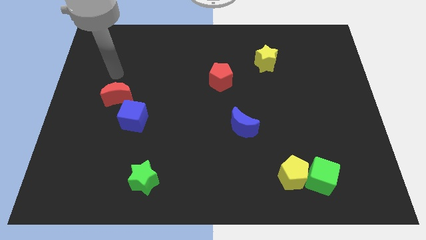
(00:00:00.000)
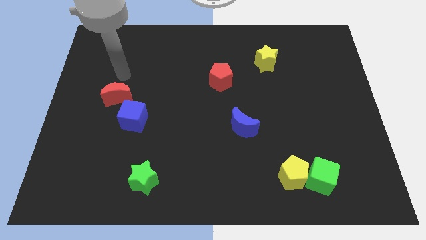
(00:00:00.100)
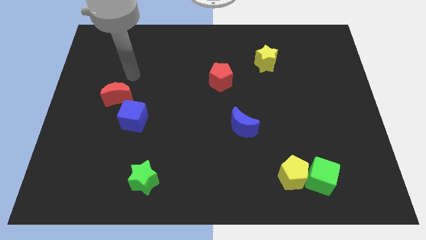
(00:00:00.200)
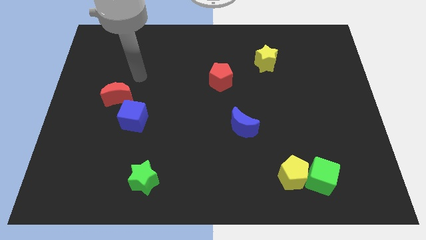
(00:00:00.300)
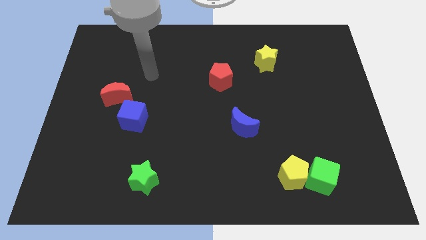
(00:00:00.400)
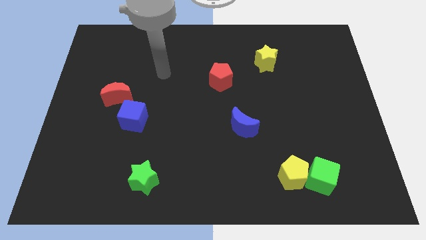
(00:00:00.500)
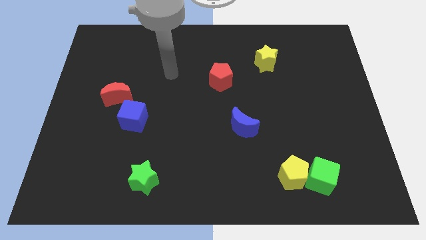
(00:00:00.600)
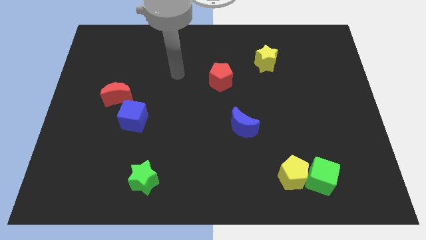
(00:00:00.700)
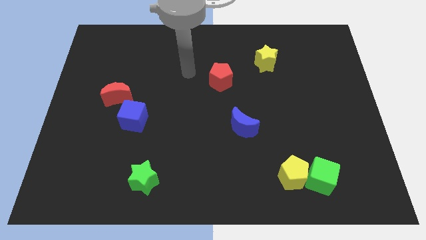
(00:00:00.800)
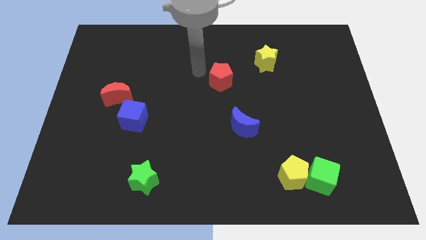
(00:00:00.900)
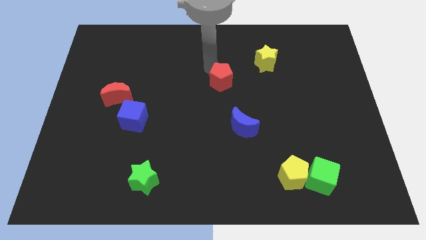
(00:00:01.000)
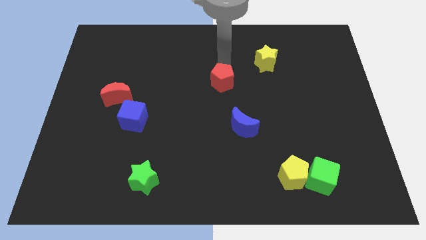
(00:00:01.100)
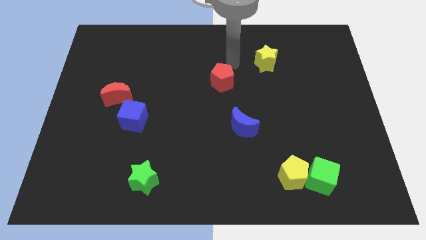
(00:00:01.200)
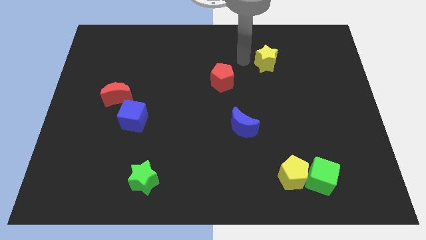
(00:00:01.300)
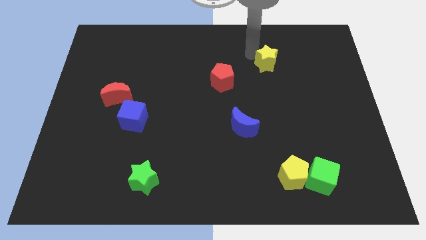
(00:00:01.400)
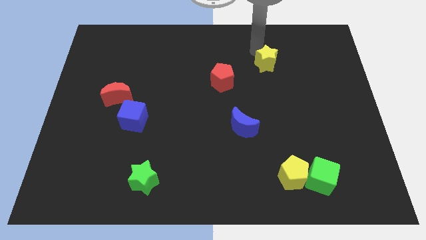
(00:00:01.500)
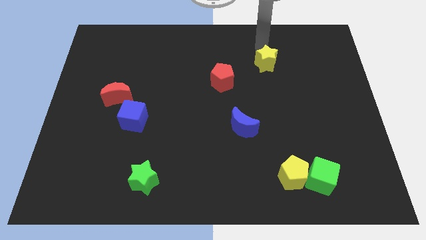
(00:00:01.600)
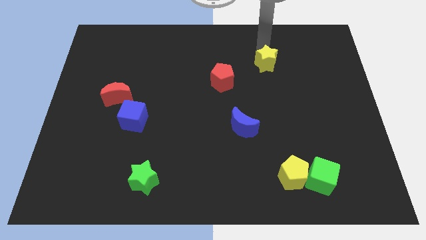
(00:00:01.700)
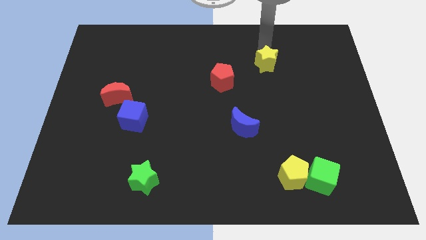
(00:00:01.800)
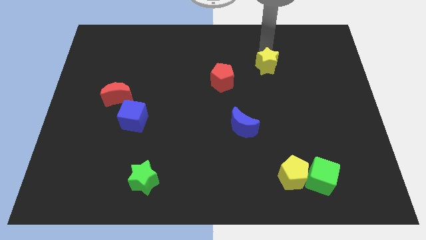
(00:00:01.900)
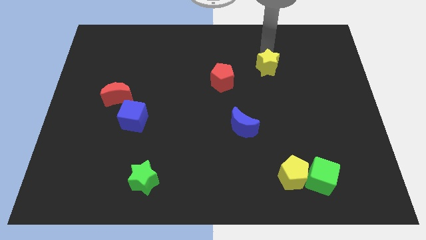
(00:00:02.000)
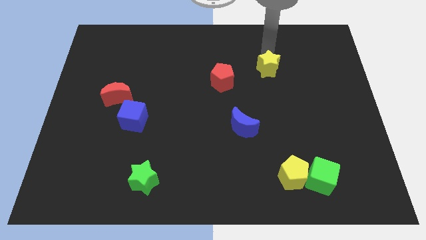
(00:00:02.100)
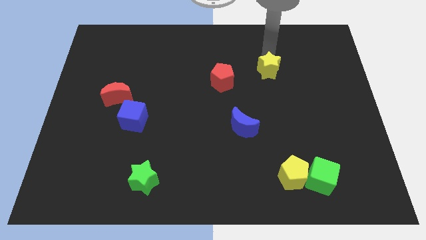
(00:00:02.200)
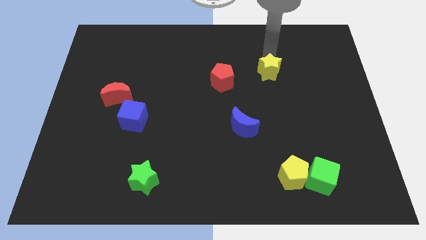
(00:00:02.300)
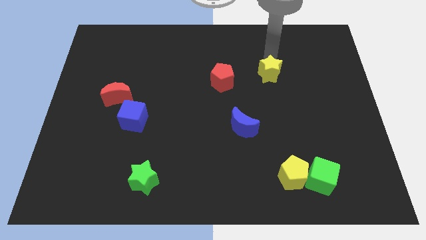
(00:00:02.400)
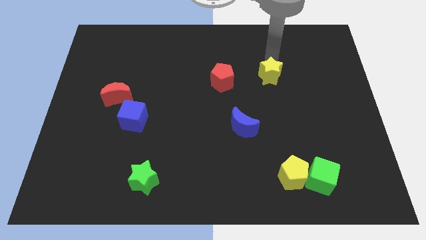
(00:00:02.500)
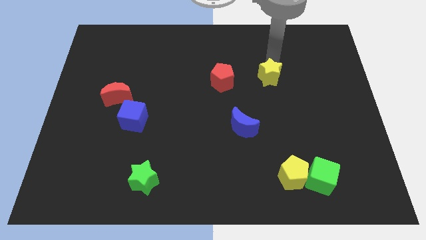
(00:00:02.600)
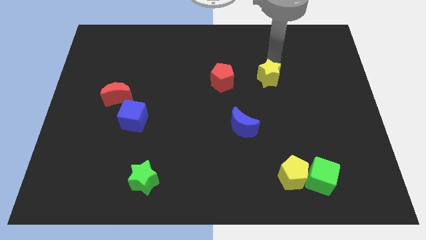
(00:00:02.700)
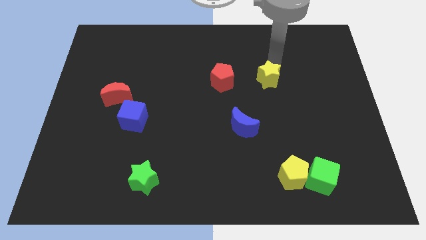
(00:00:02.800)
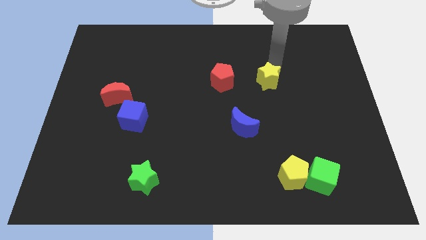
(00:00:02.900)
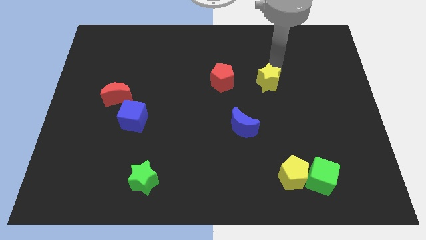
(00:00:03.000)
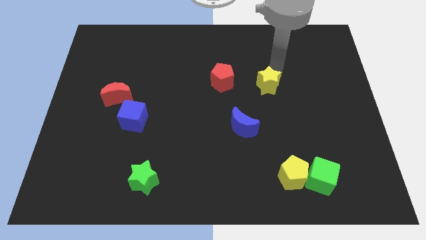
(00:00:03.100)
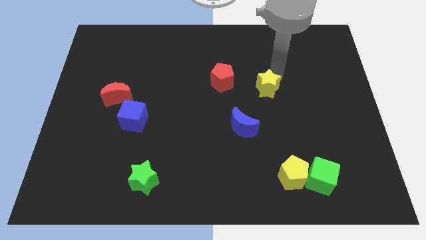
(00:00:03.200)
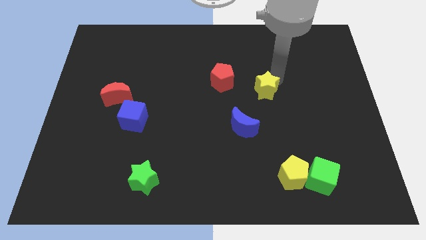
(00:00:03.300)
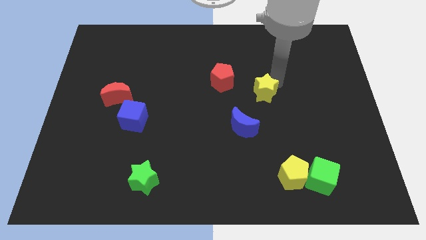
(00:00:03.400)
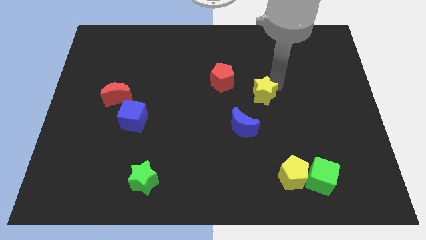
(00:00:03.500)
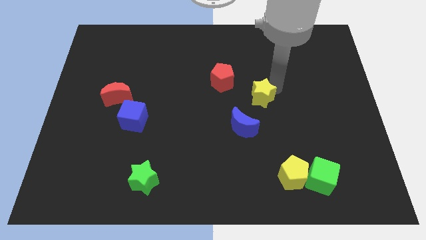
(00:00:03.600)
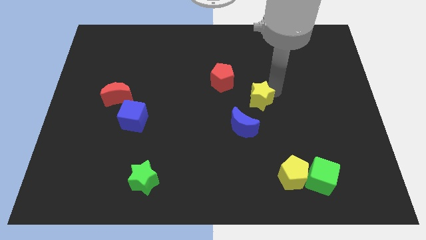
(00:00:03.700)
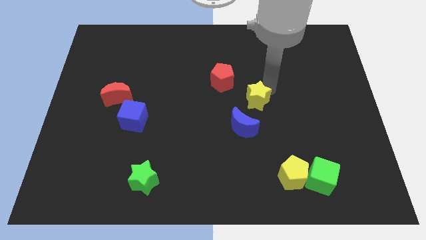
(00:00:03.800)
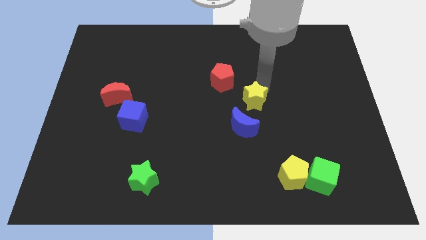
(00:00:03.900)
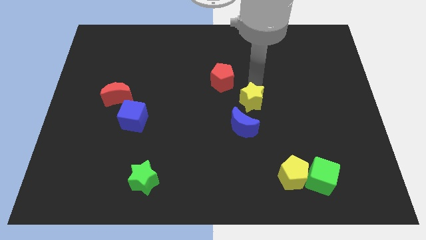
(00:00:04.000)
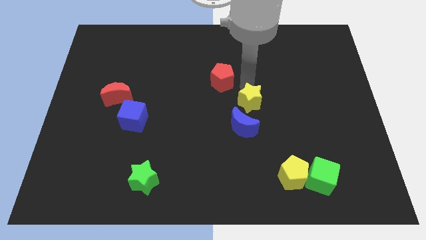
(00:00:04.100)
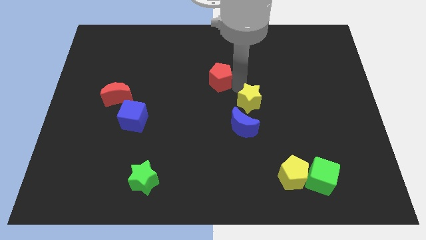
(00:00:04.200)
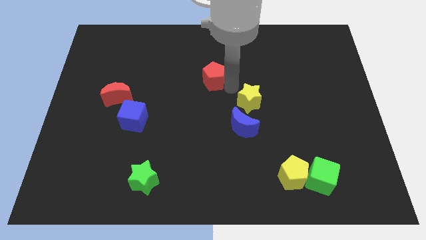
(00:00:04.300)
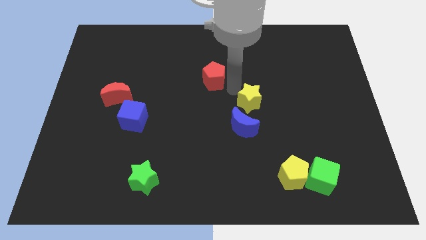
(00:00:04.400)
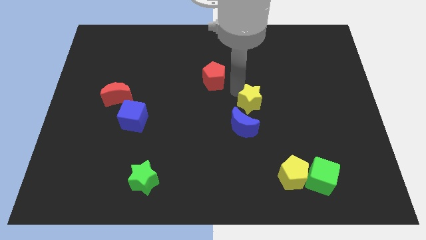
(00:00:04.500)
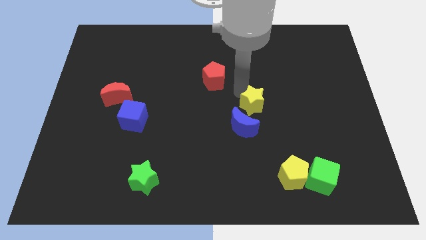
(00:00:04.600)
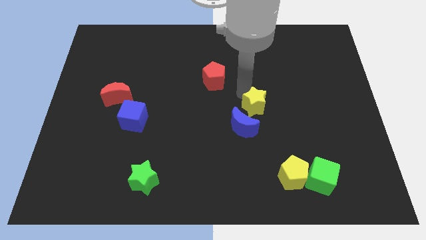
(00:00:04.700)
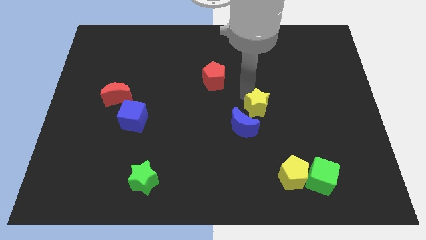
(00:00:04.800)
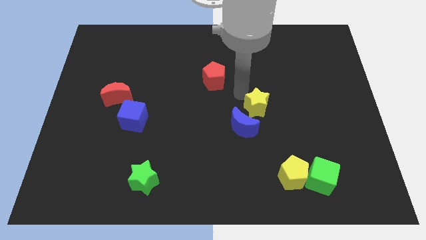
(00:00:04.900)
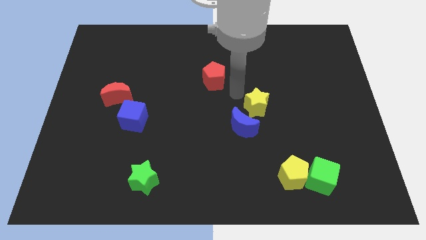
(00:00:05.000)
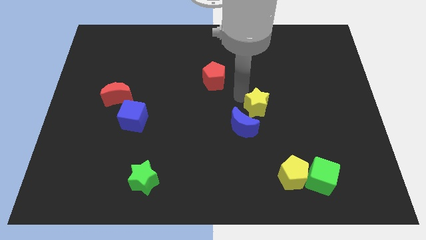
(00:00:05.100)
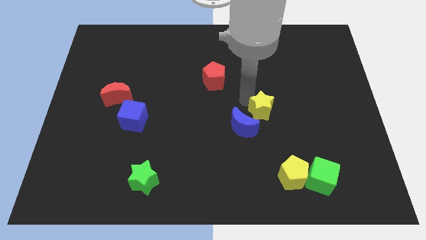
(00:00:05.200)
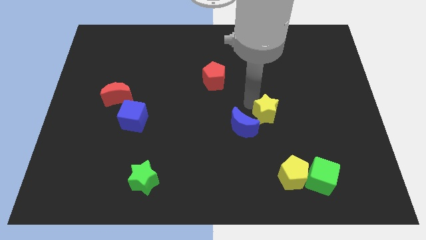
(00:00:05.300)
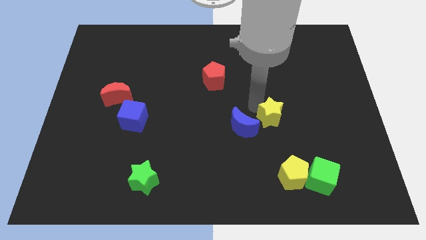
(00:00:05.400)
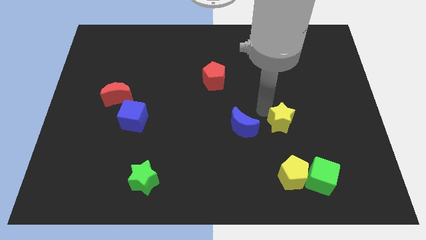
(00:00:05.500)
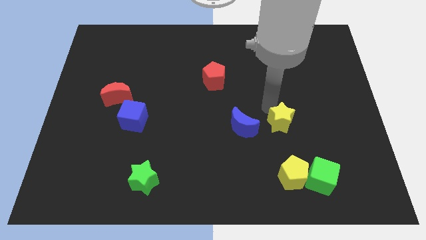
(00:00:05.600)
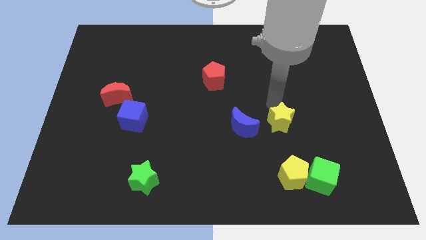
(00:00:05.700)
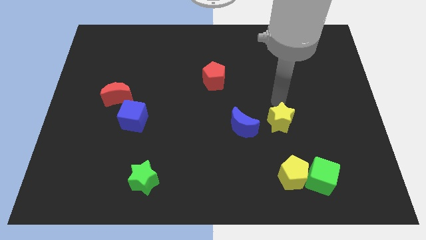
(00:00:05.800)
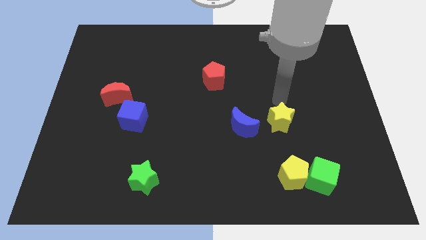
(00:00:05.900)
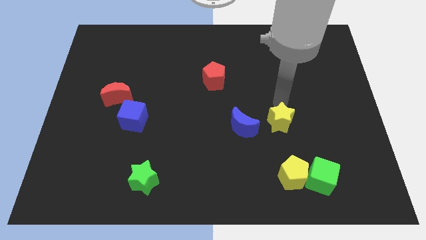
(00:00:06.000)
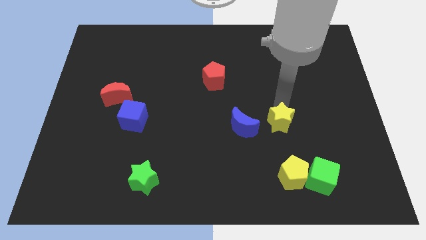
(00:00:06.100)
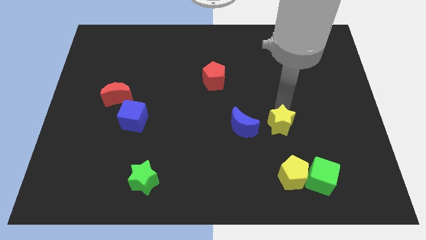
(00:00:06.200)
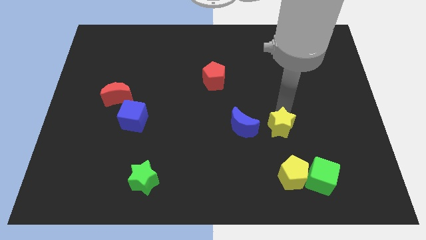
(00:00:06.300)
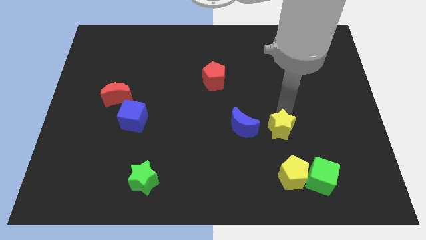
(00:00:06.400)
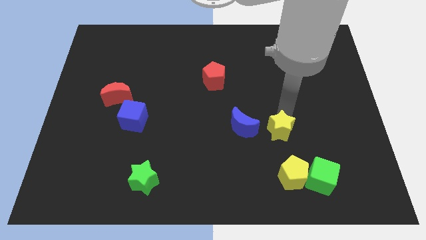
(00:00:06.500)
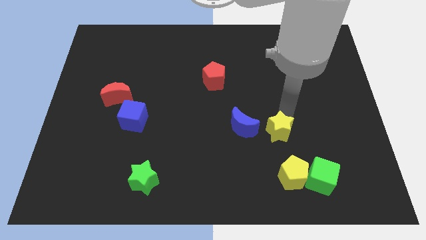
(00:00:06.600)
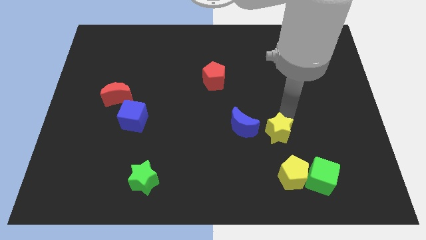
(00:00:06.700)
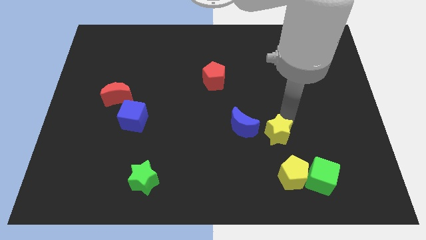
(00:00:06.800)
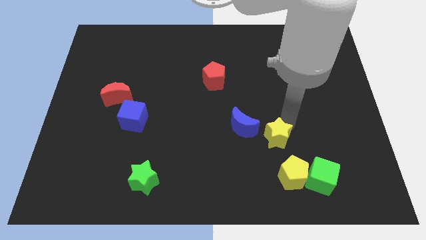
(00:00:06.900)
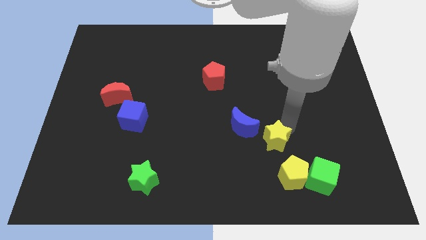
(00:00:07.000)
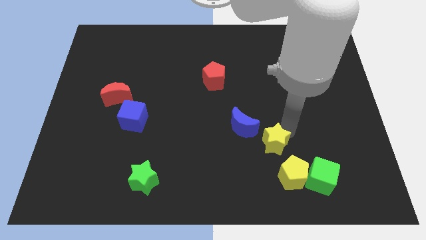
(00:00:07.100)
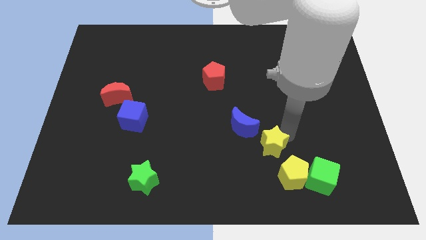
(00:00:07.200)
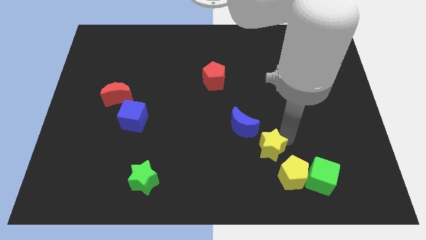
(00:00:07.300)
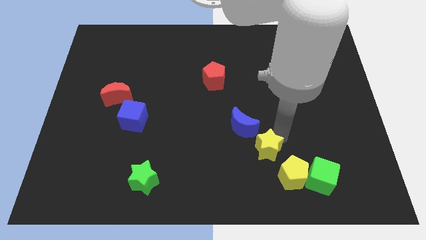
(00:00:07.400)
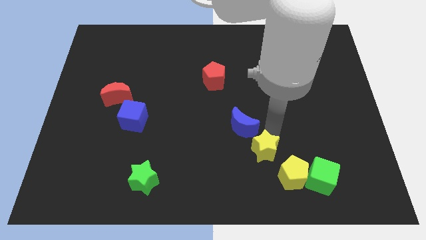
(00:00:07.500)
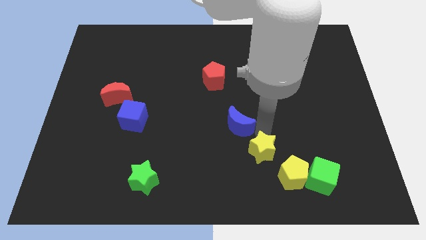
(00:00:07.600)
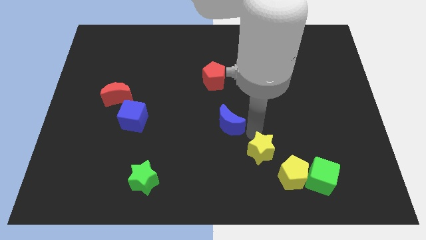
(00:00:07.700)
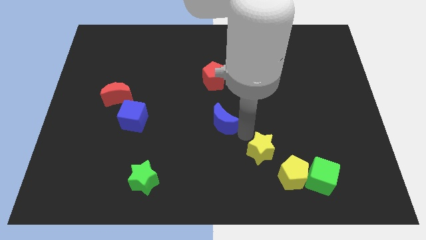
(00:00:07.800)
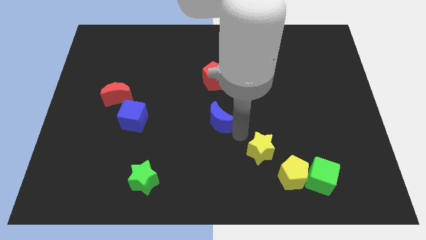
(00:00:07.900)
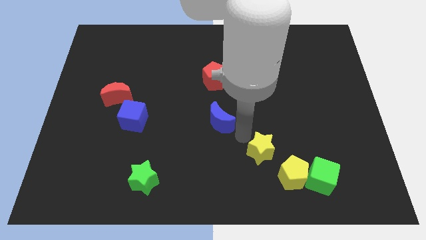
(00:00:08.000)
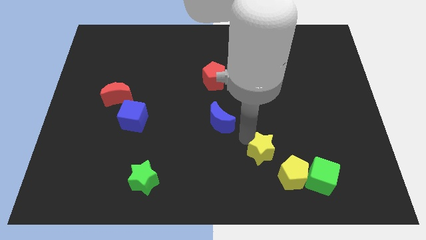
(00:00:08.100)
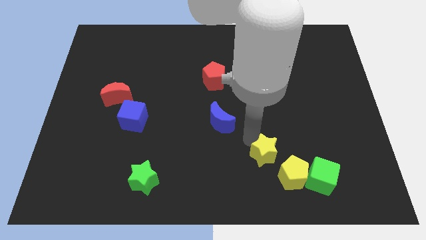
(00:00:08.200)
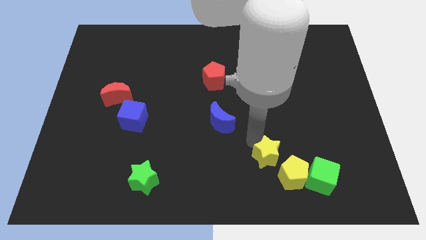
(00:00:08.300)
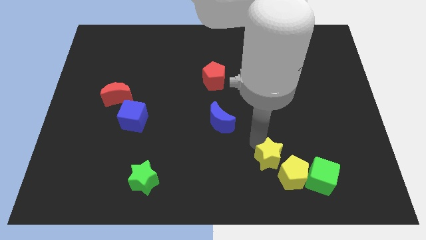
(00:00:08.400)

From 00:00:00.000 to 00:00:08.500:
push the yellow star to the yellow pentagon
